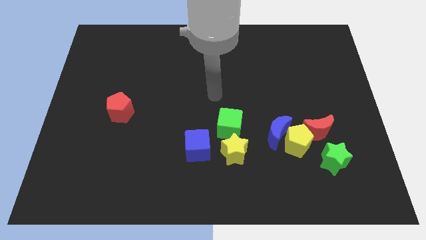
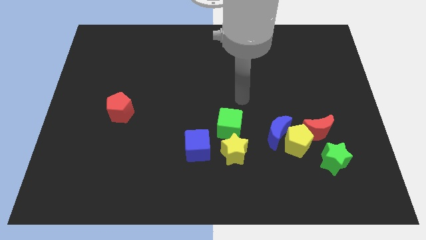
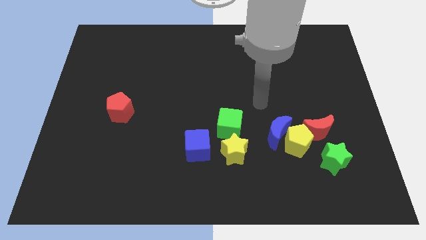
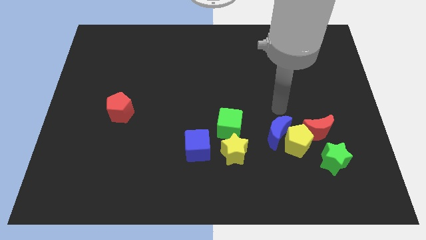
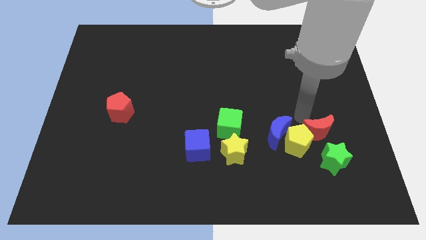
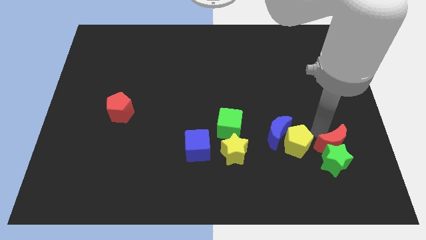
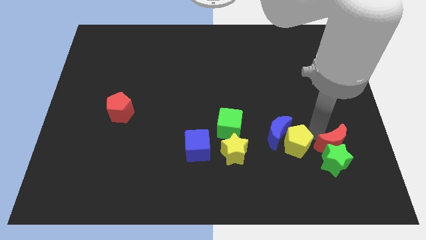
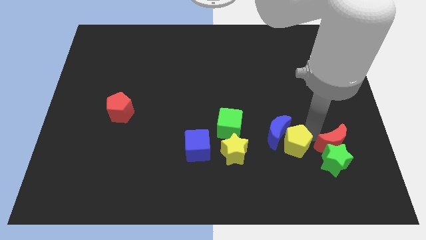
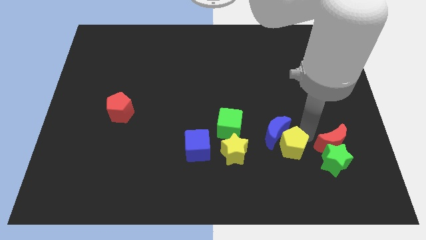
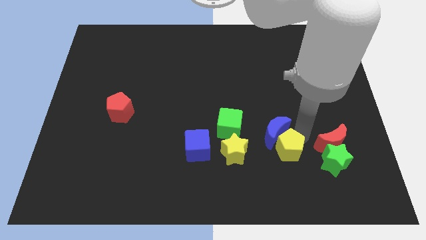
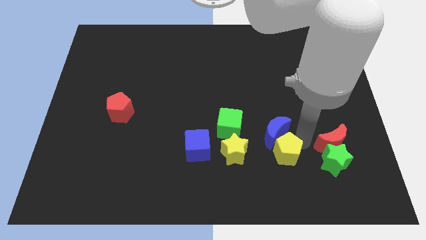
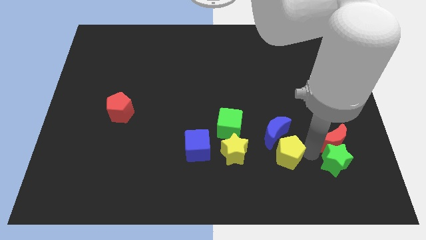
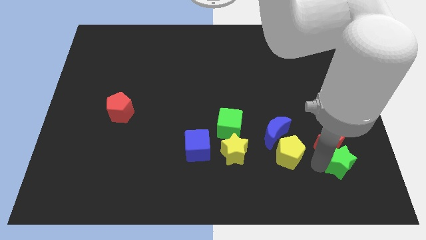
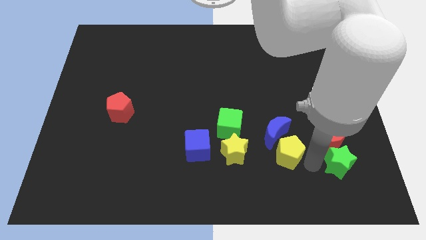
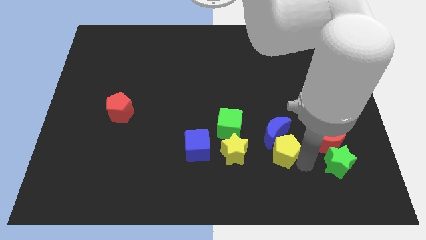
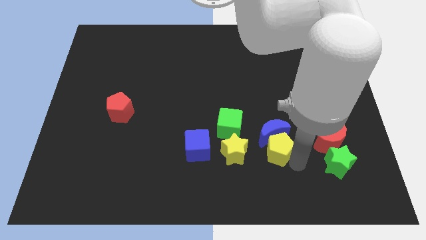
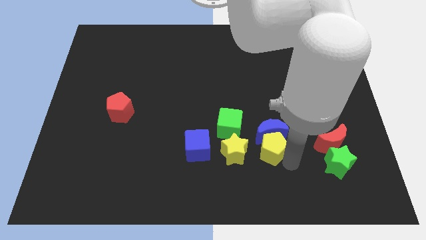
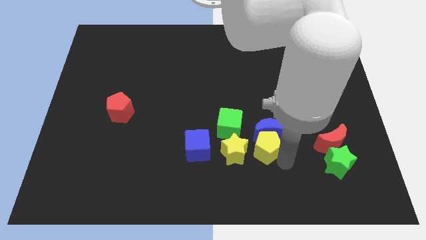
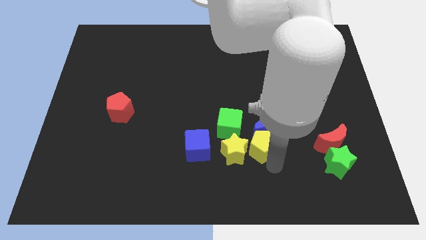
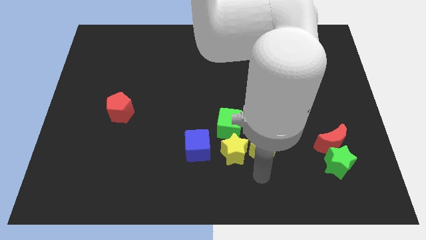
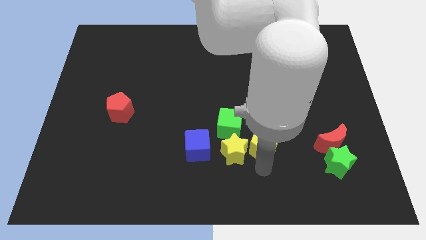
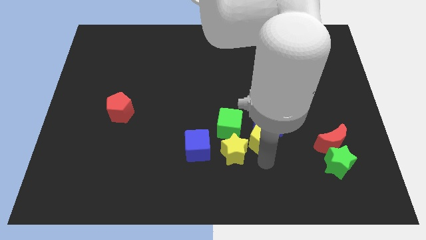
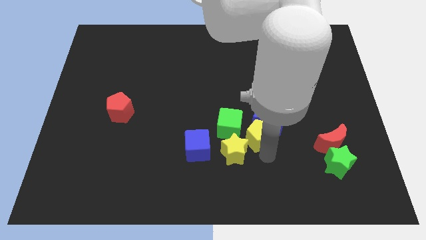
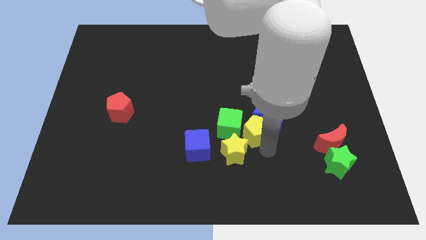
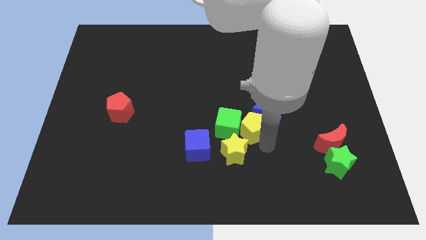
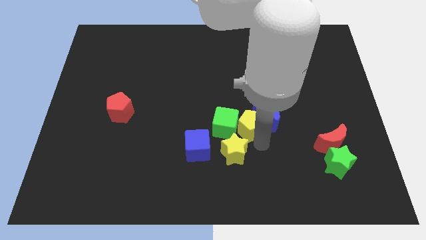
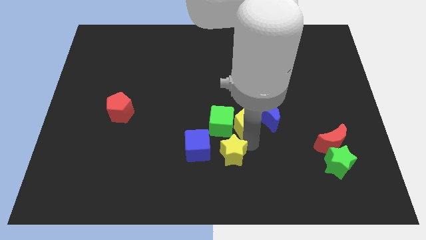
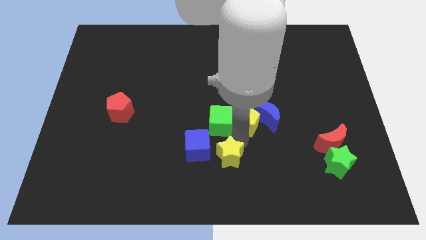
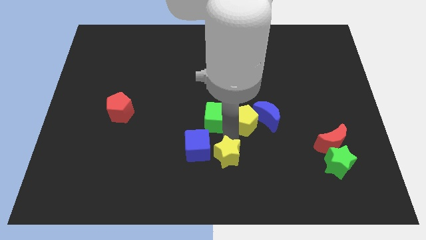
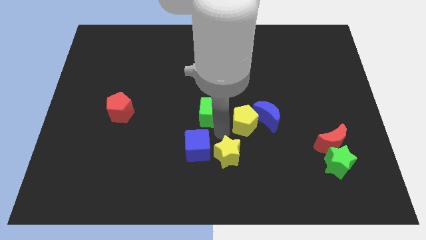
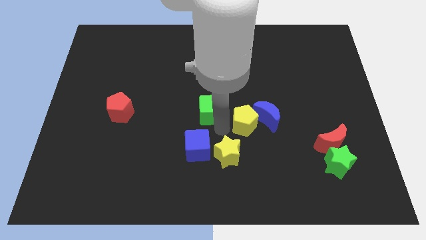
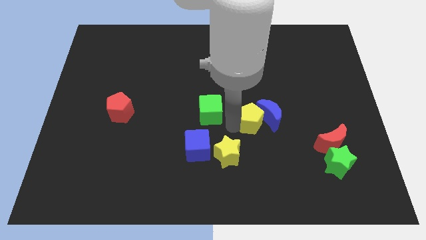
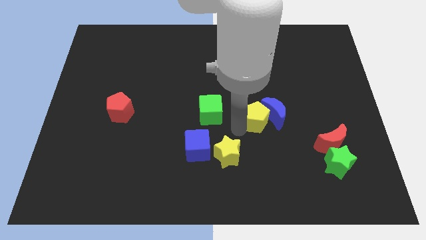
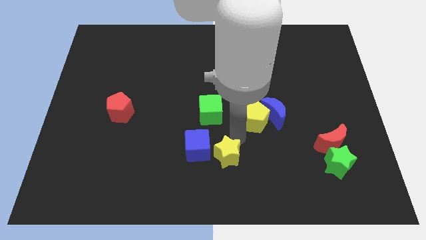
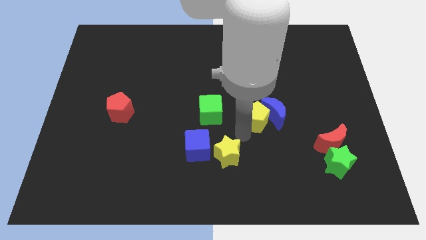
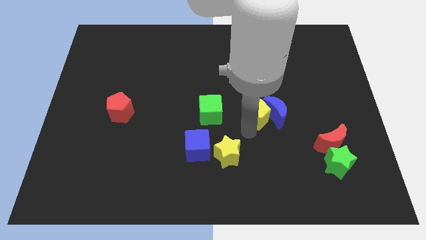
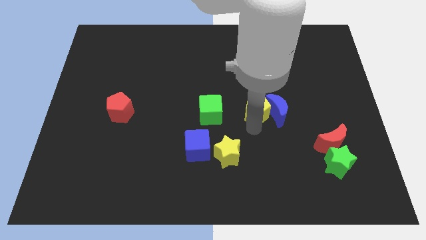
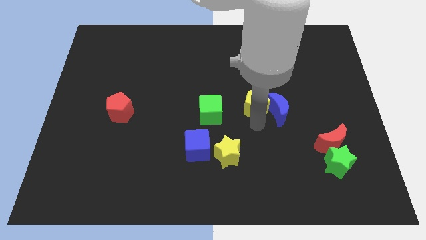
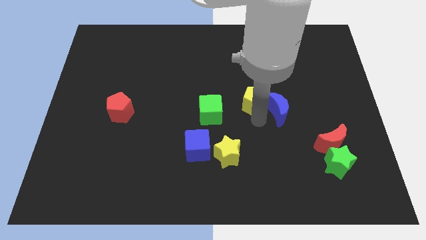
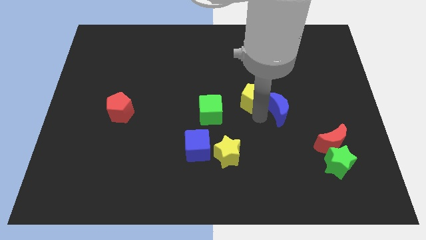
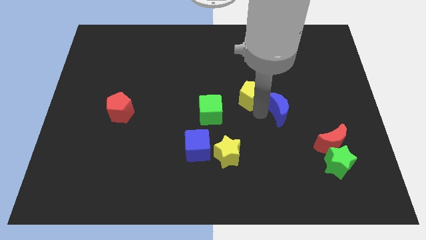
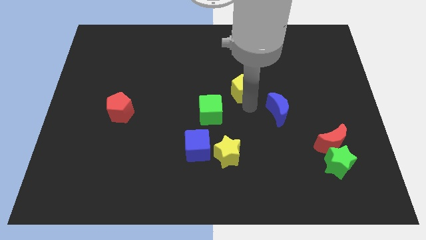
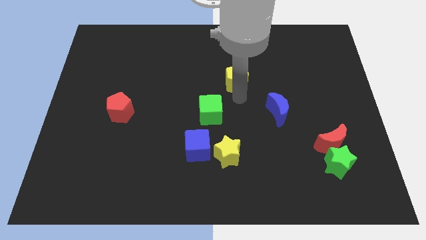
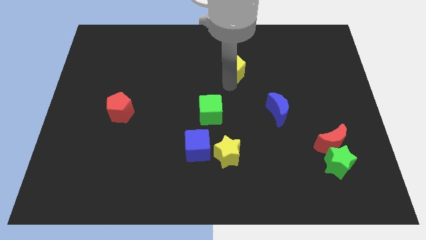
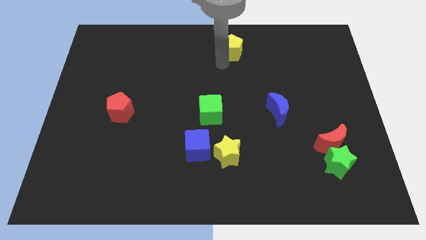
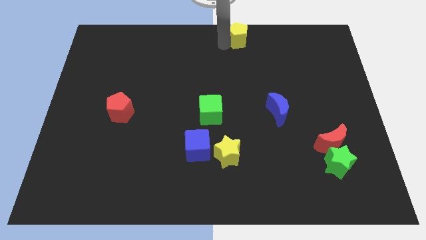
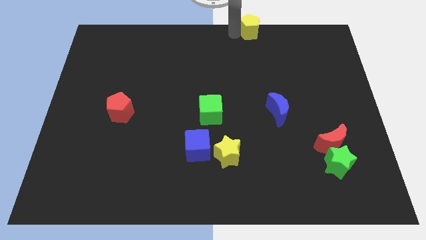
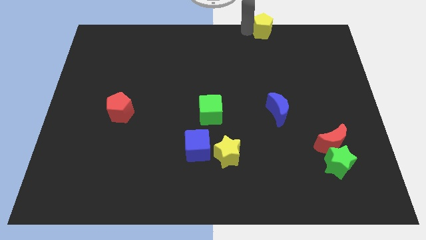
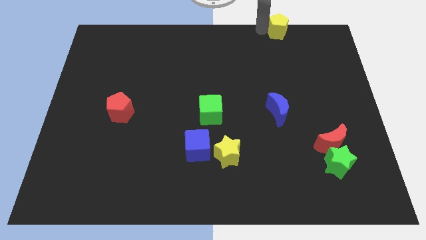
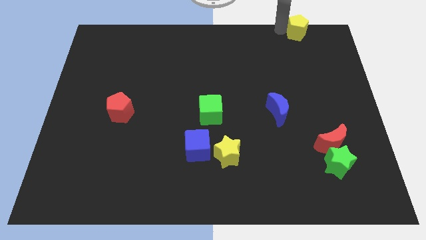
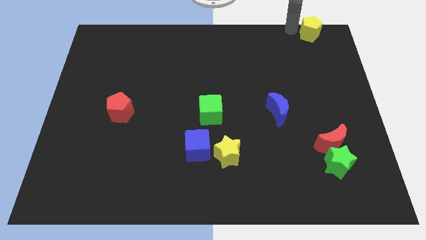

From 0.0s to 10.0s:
put the yellow pentagon to the top right of the board

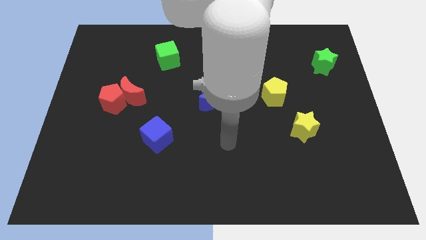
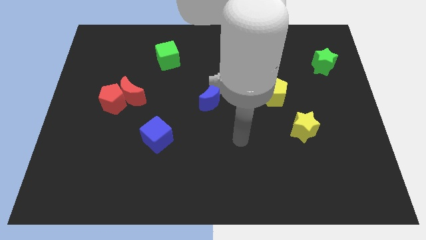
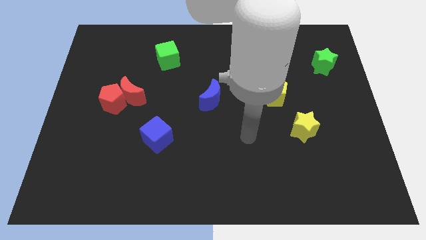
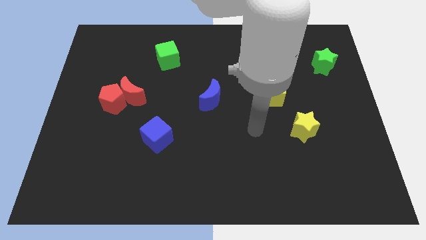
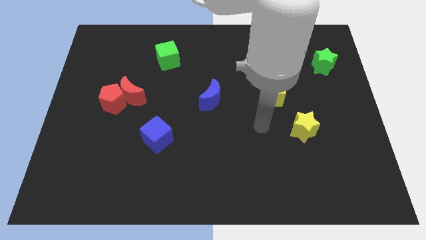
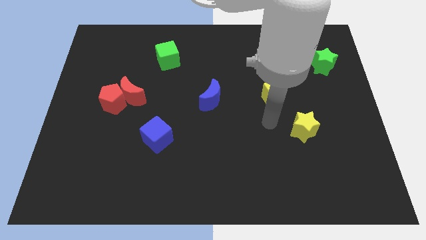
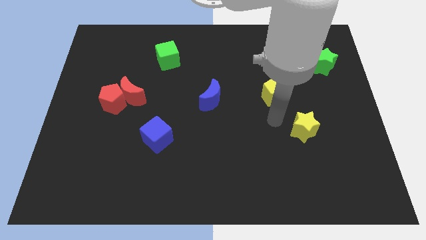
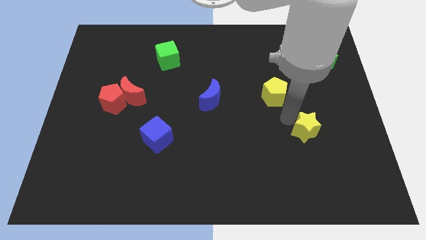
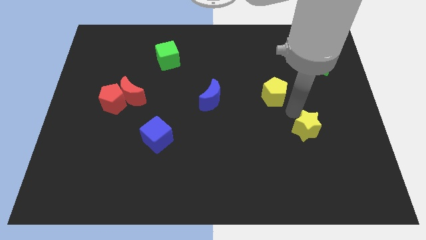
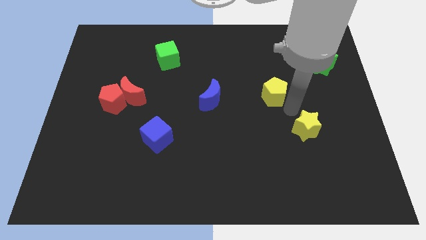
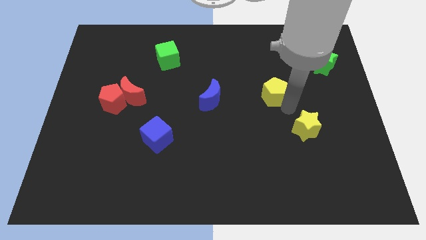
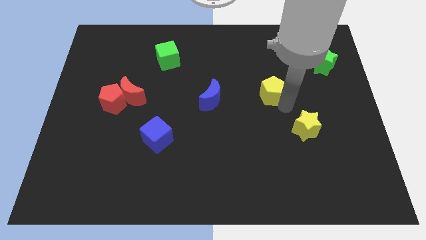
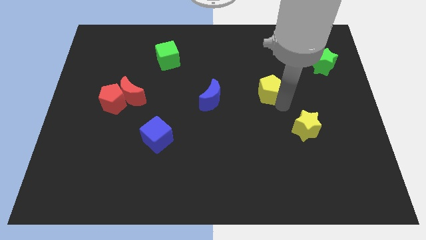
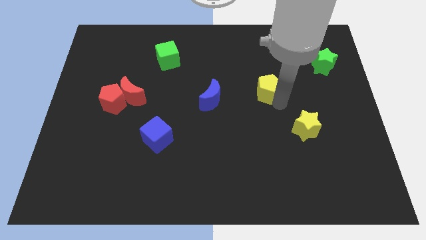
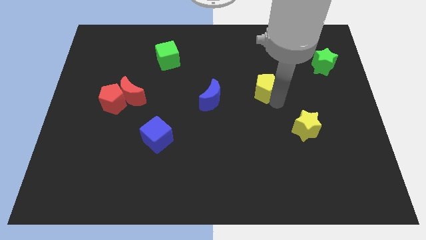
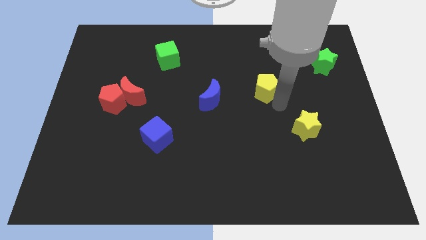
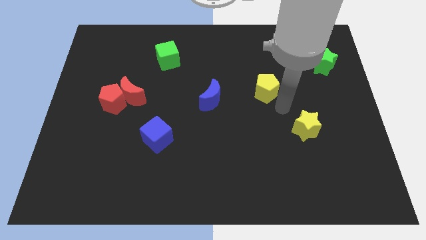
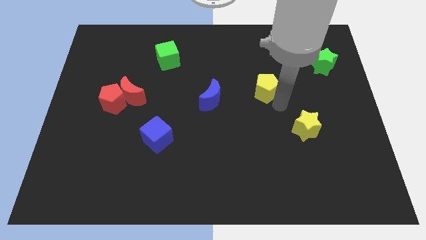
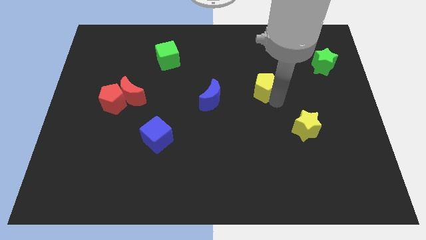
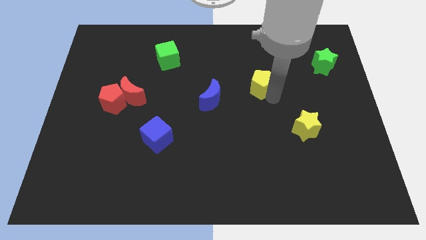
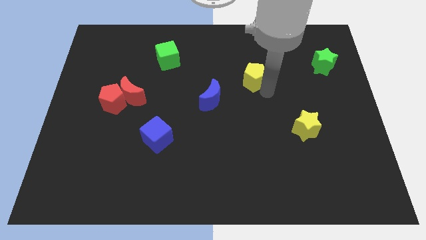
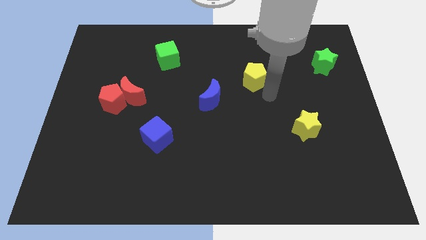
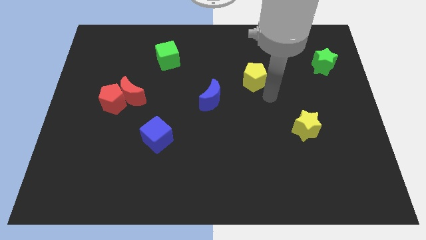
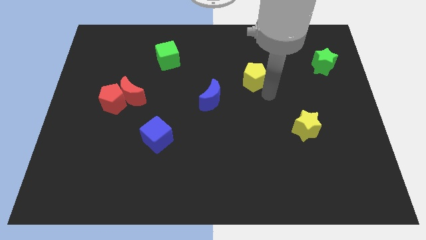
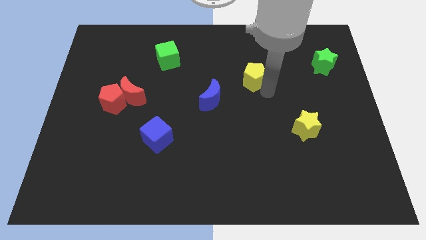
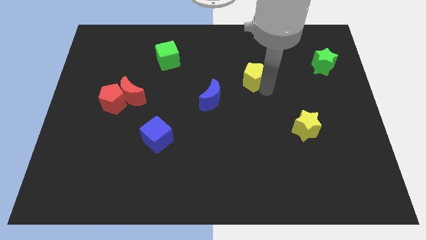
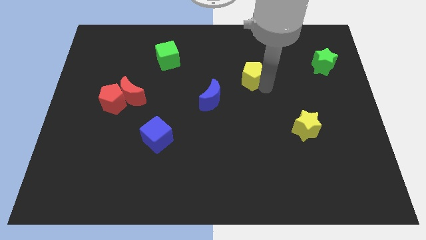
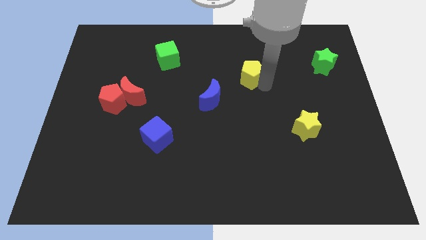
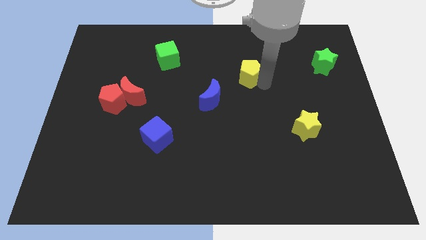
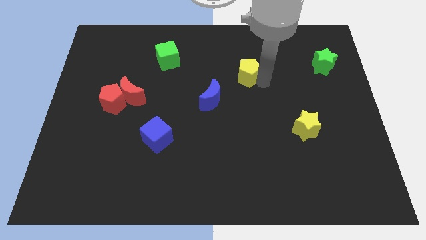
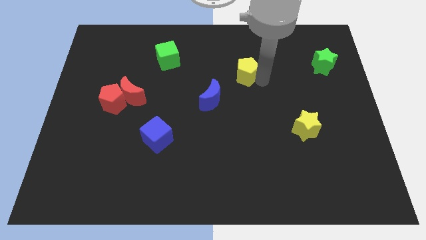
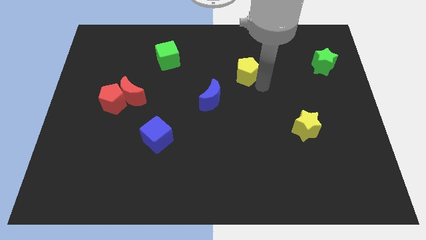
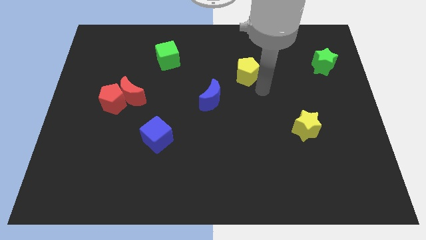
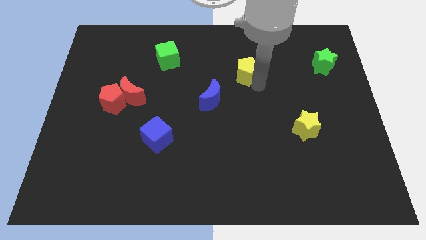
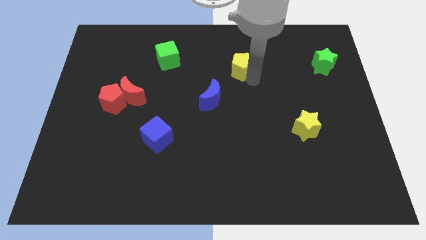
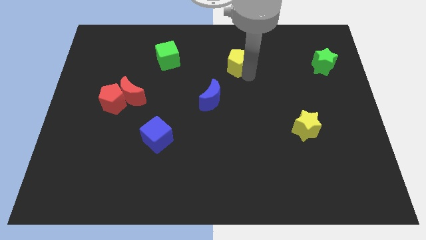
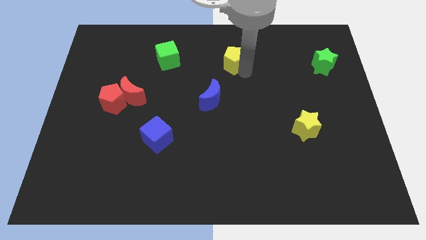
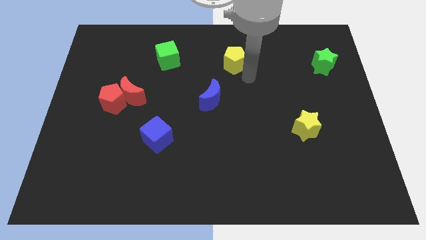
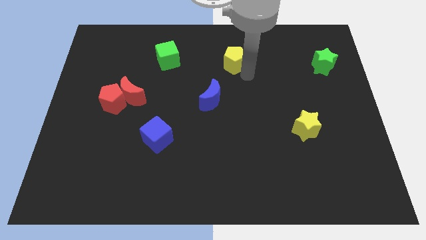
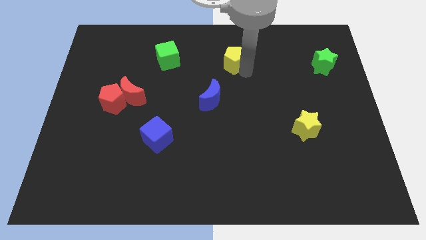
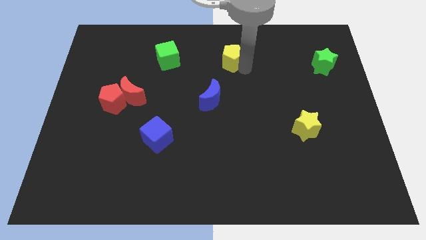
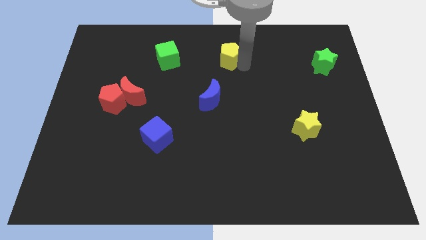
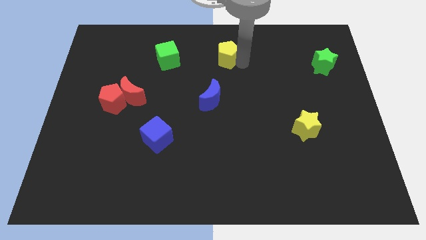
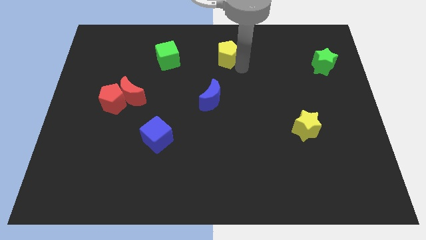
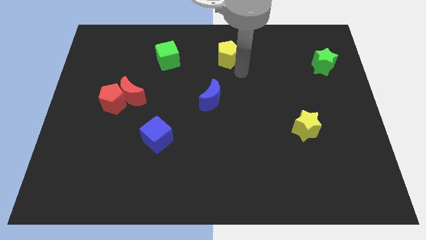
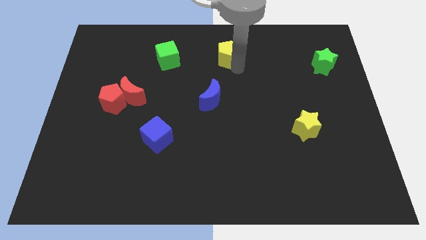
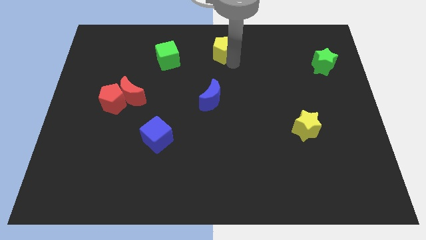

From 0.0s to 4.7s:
push the yellow pentagon to the top side
